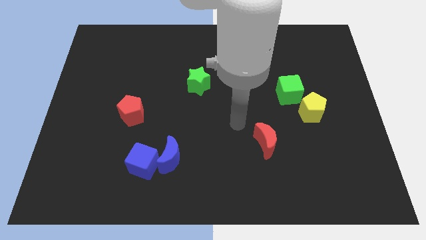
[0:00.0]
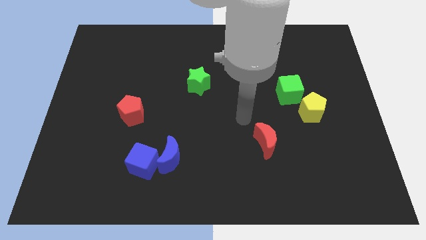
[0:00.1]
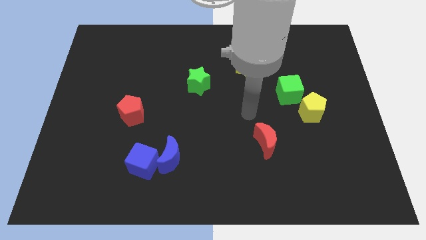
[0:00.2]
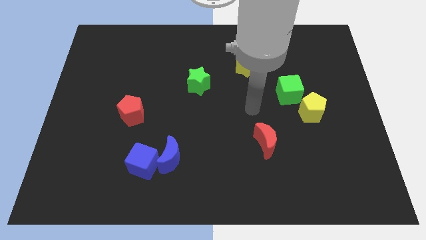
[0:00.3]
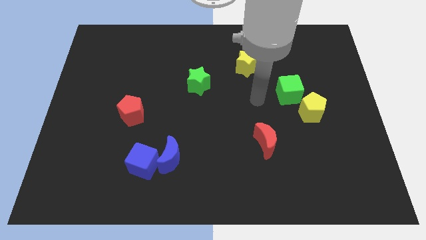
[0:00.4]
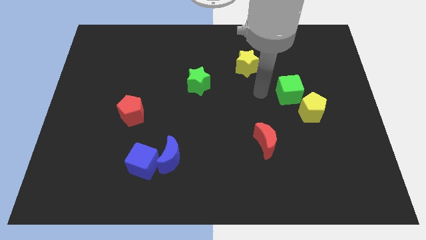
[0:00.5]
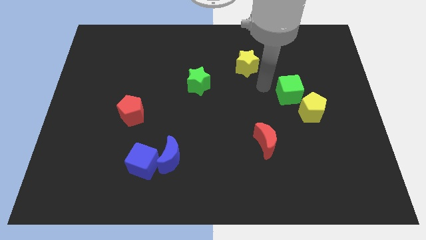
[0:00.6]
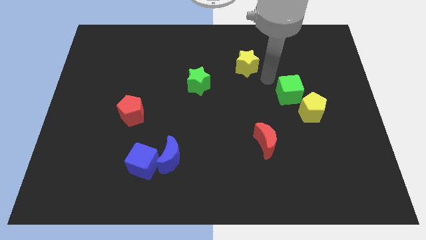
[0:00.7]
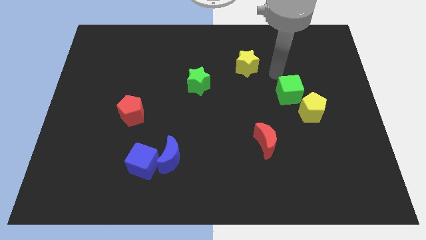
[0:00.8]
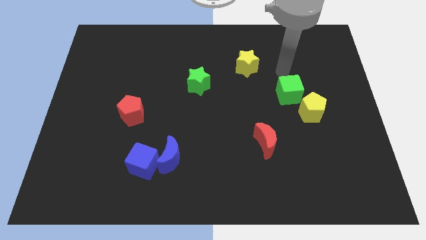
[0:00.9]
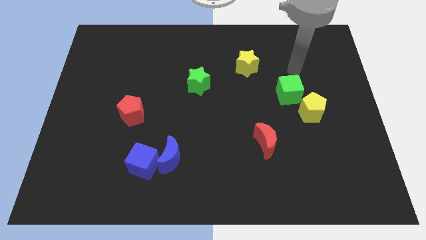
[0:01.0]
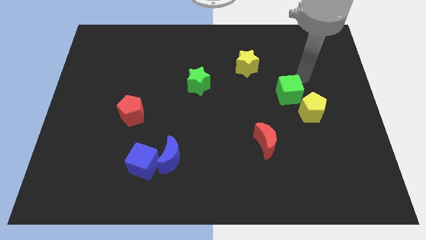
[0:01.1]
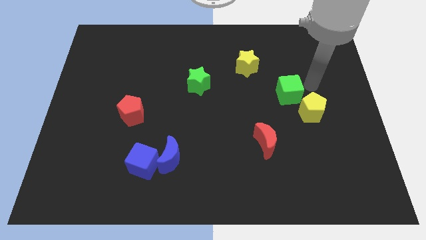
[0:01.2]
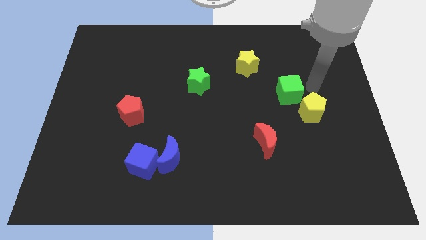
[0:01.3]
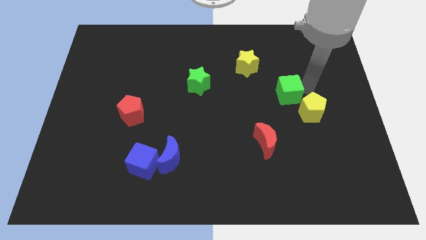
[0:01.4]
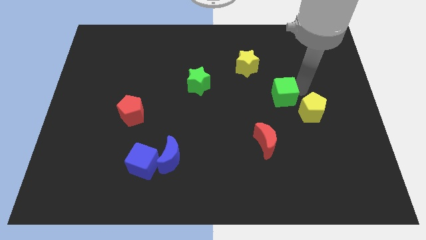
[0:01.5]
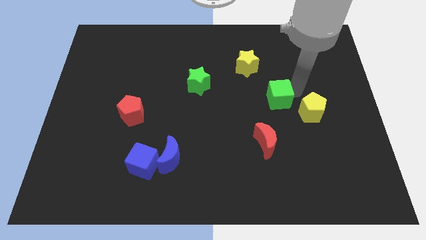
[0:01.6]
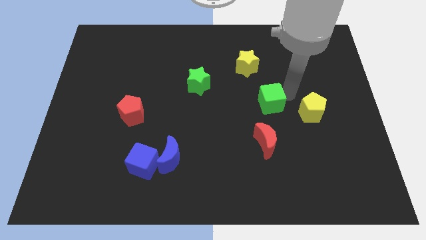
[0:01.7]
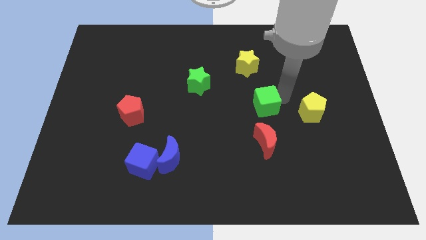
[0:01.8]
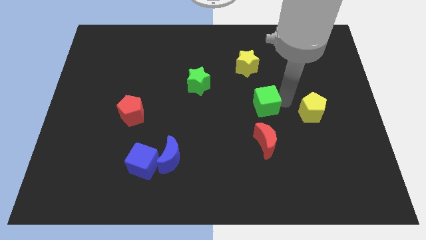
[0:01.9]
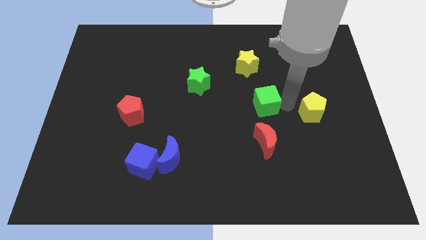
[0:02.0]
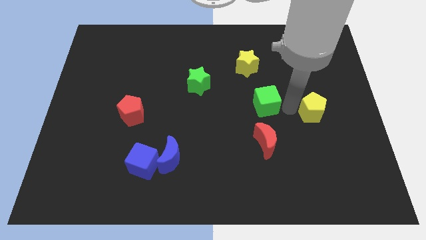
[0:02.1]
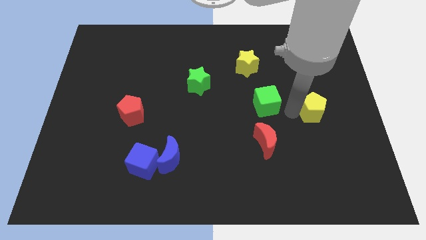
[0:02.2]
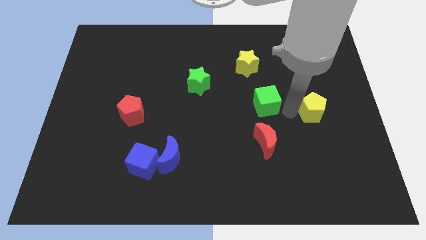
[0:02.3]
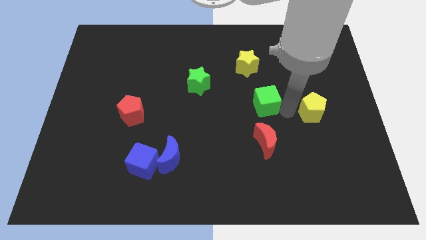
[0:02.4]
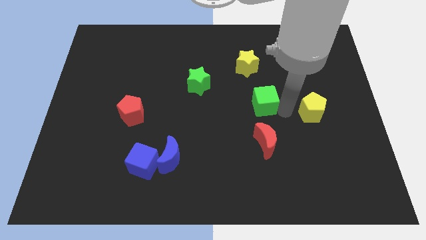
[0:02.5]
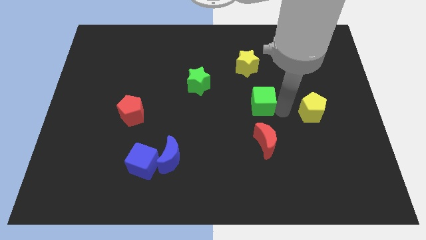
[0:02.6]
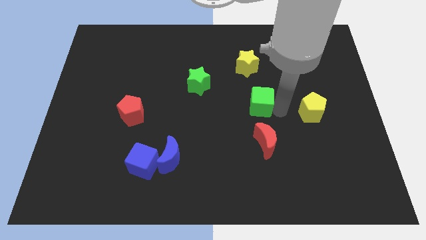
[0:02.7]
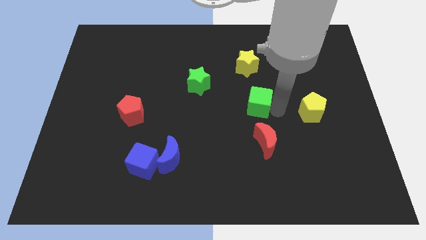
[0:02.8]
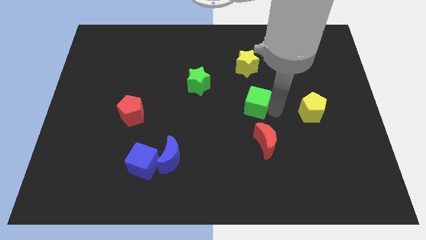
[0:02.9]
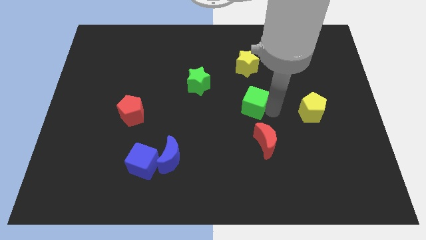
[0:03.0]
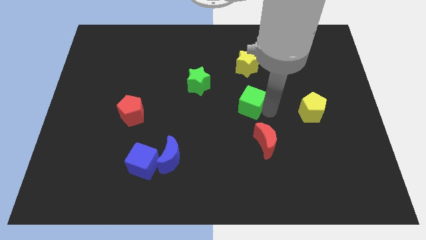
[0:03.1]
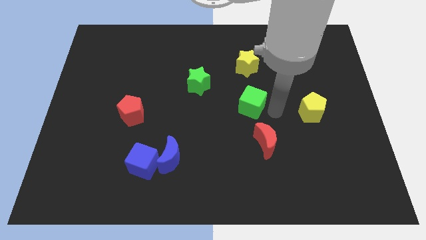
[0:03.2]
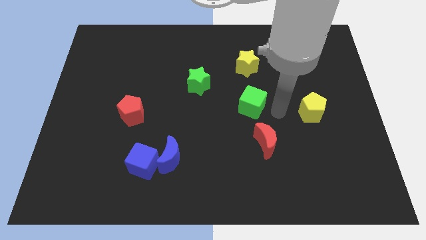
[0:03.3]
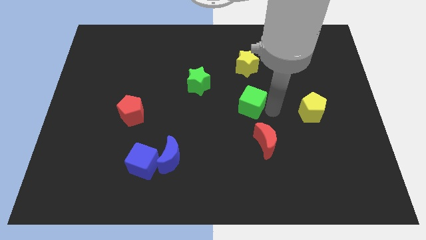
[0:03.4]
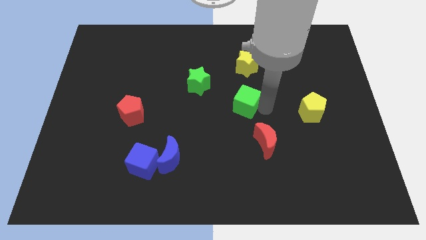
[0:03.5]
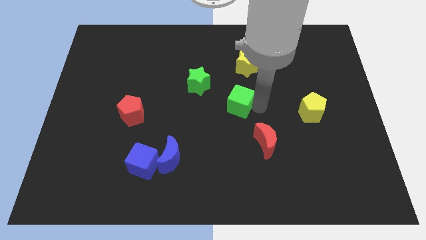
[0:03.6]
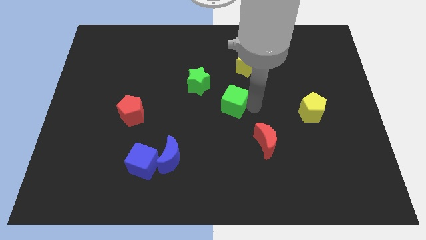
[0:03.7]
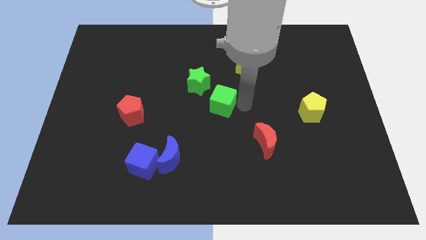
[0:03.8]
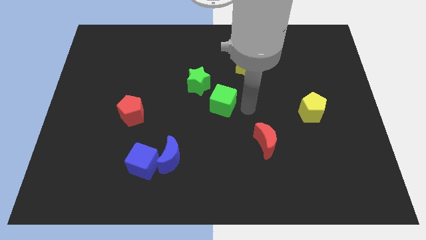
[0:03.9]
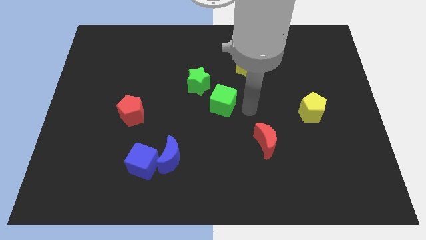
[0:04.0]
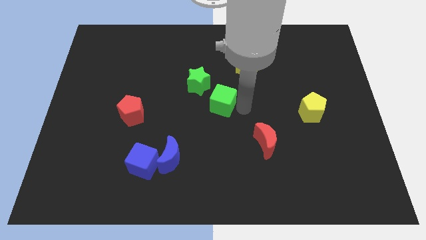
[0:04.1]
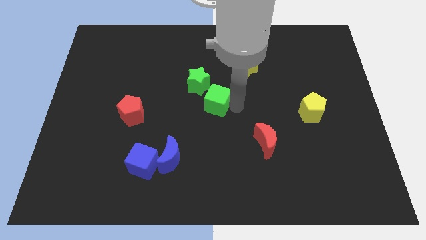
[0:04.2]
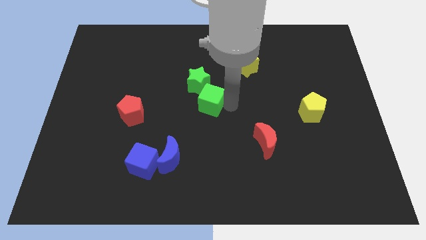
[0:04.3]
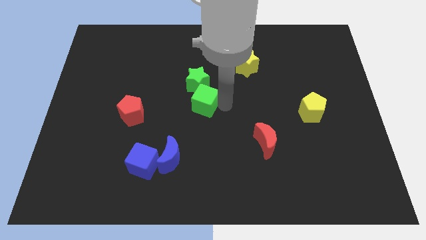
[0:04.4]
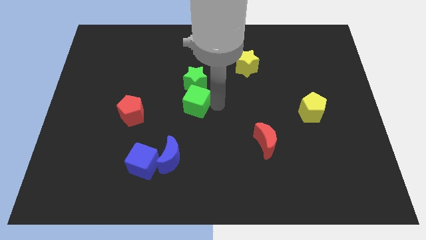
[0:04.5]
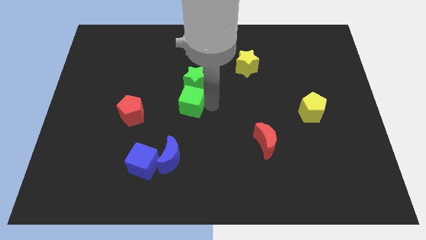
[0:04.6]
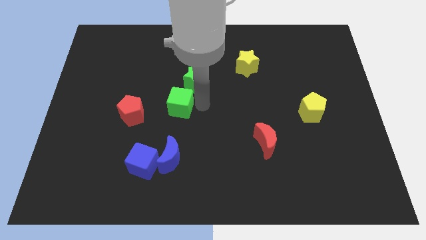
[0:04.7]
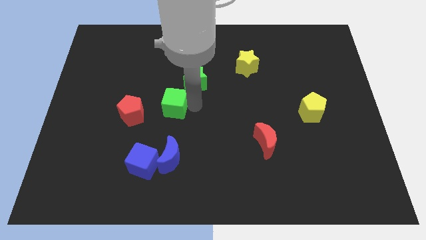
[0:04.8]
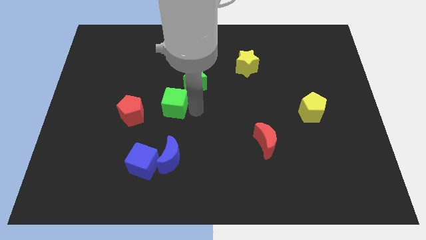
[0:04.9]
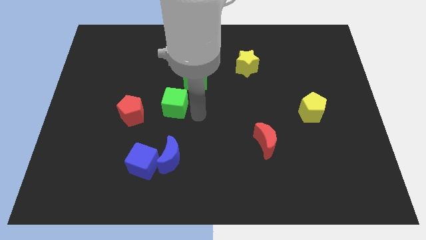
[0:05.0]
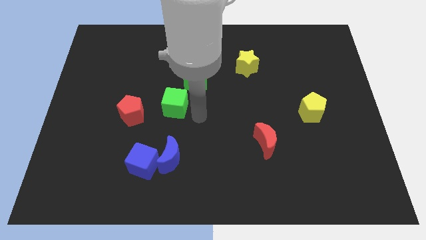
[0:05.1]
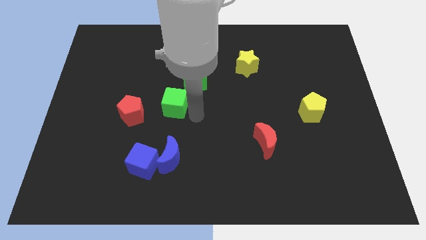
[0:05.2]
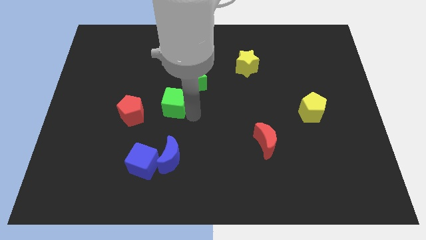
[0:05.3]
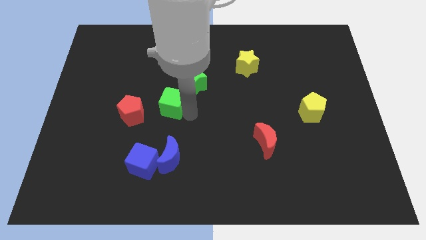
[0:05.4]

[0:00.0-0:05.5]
put the green cube diagonally up and to the right of the red pentagon
